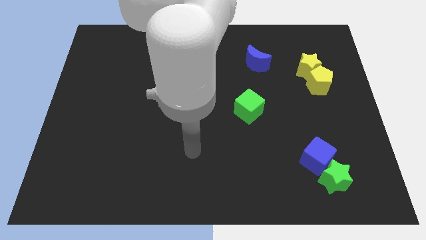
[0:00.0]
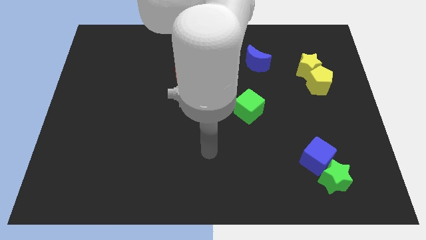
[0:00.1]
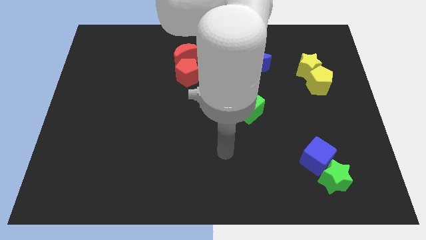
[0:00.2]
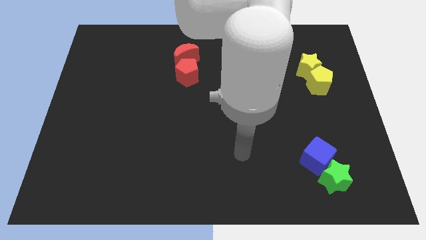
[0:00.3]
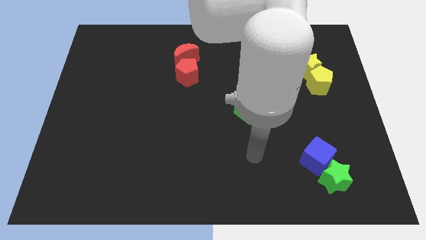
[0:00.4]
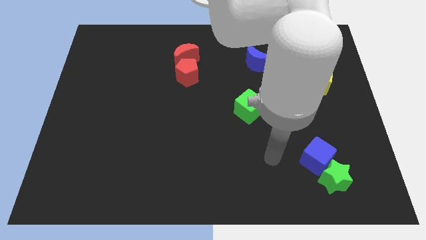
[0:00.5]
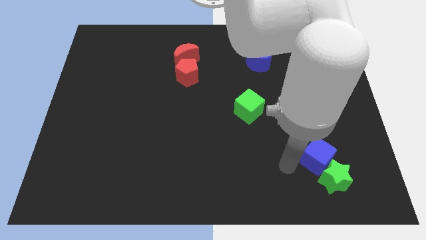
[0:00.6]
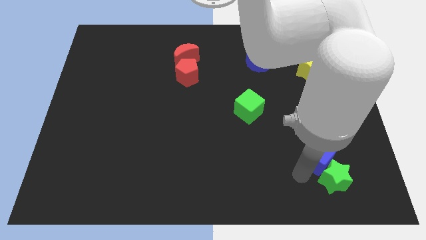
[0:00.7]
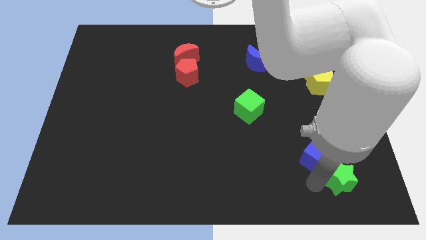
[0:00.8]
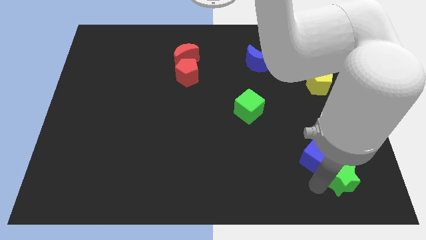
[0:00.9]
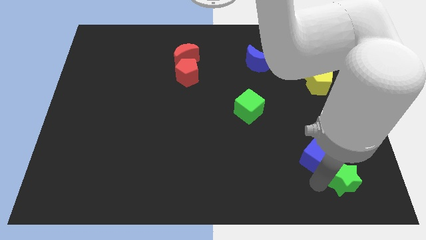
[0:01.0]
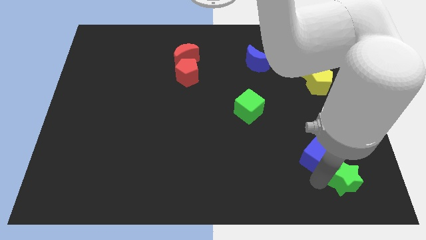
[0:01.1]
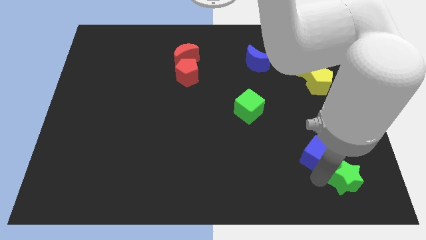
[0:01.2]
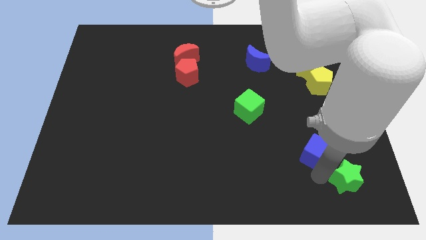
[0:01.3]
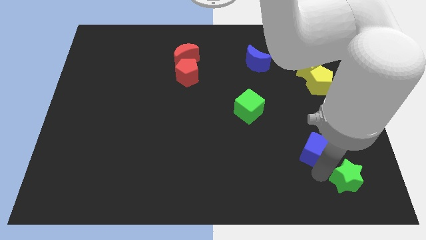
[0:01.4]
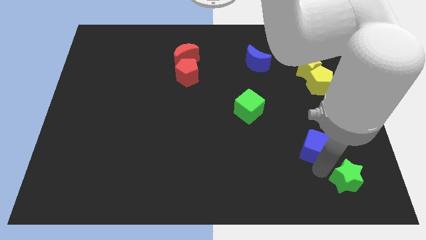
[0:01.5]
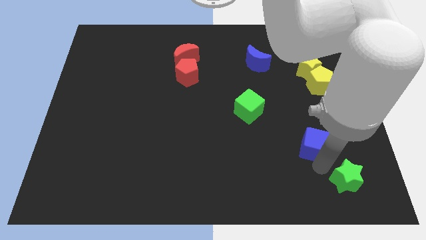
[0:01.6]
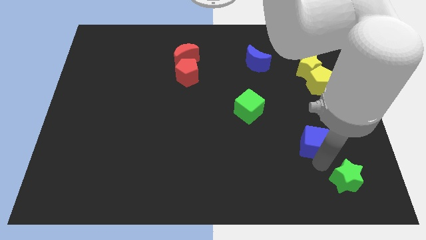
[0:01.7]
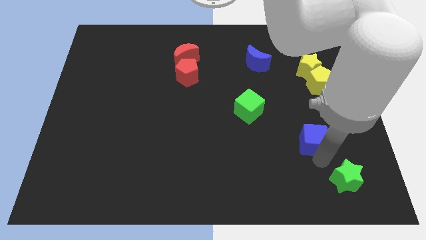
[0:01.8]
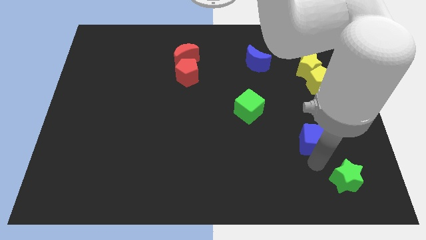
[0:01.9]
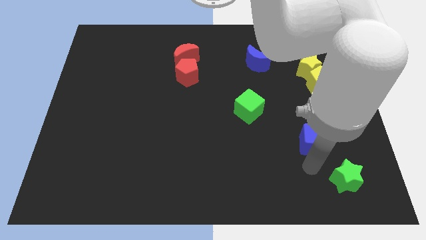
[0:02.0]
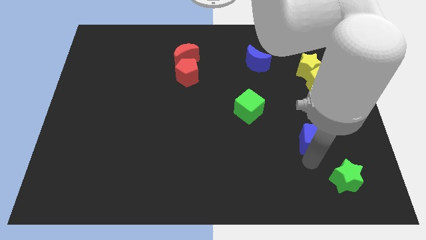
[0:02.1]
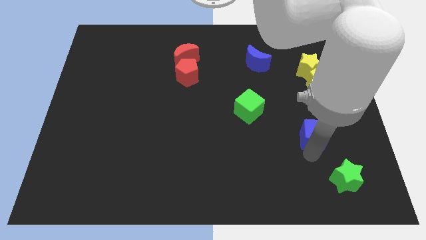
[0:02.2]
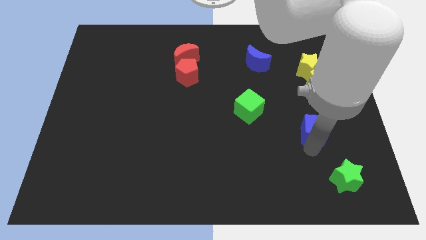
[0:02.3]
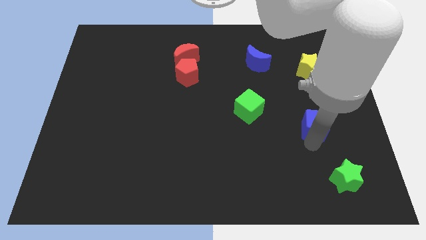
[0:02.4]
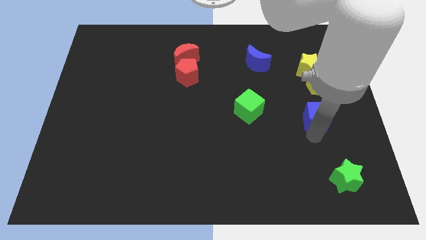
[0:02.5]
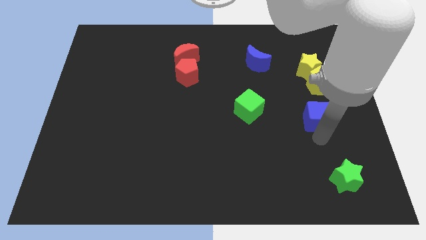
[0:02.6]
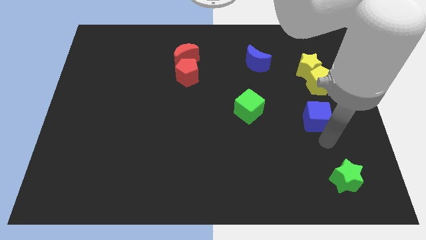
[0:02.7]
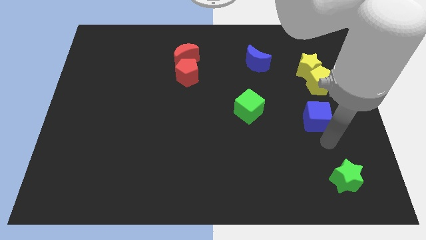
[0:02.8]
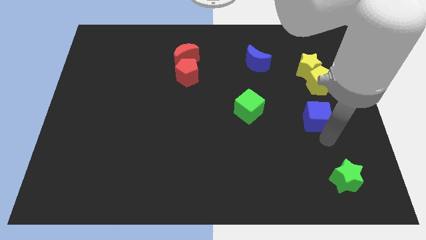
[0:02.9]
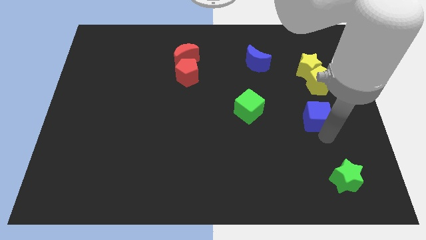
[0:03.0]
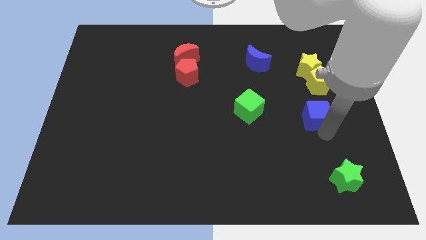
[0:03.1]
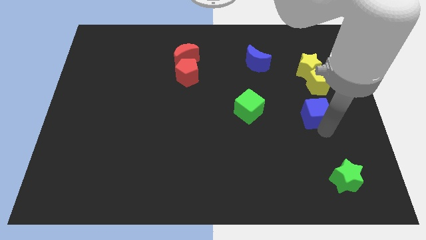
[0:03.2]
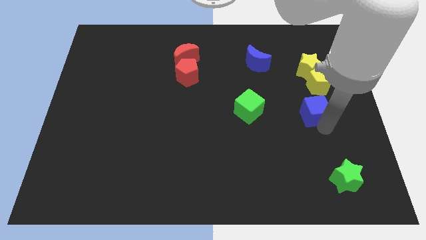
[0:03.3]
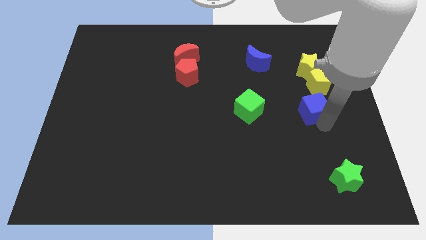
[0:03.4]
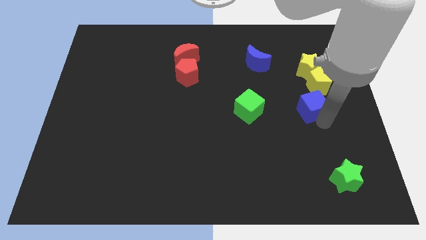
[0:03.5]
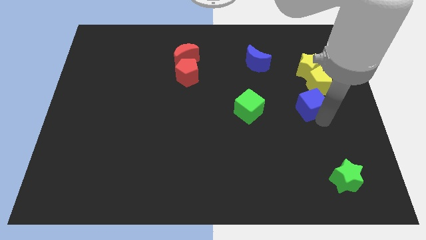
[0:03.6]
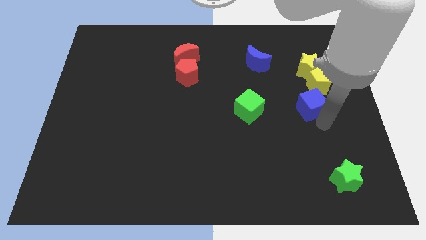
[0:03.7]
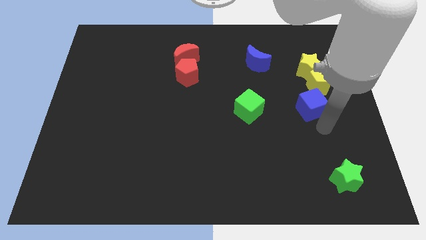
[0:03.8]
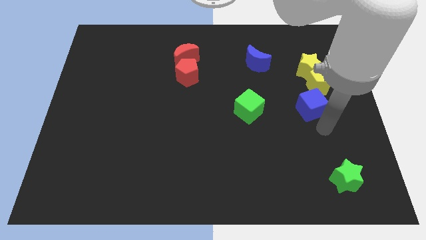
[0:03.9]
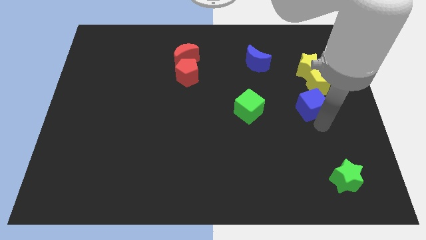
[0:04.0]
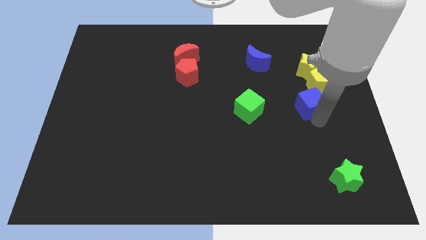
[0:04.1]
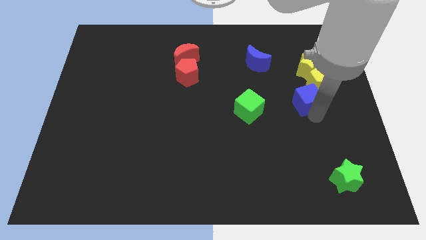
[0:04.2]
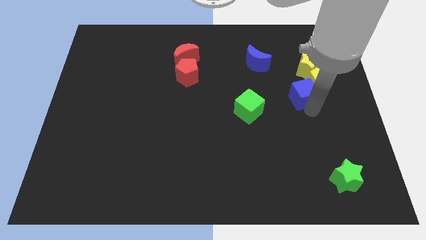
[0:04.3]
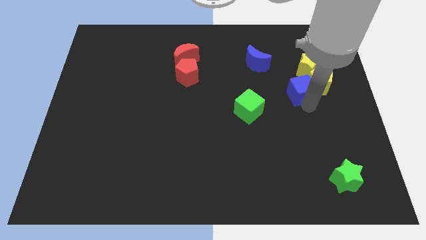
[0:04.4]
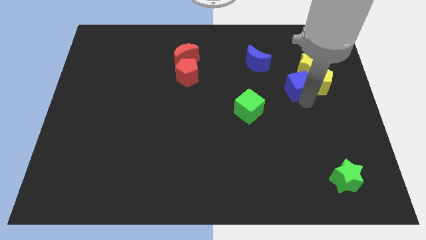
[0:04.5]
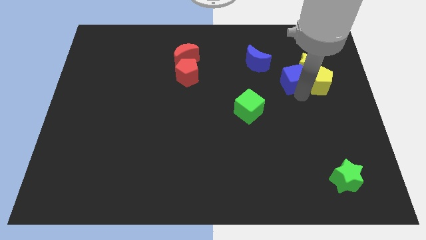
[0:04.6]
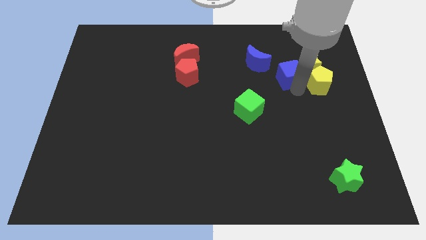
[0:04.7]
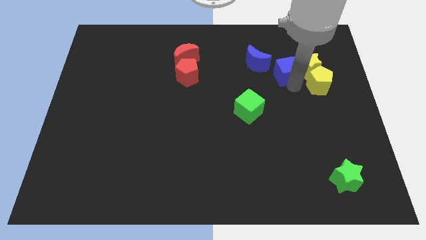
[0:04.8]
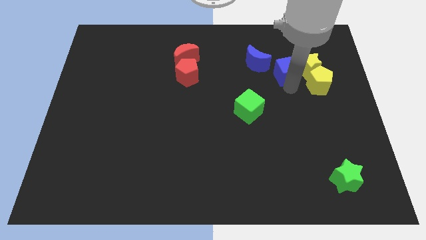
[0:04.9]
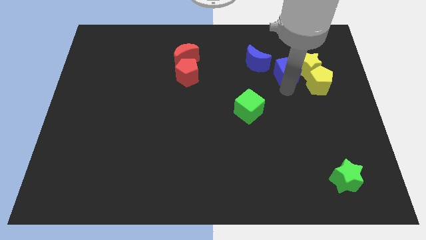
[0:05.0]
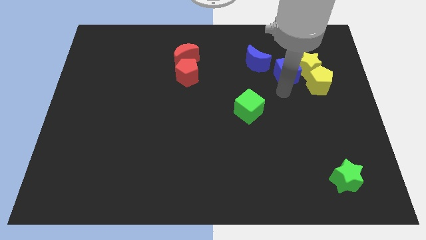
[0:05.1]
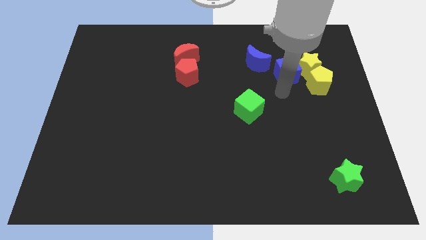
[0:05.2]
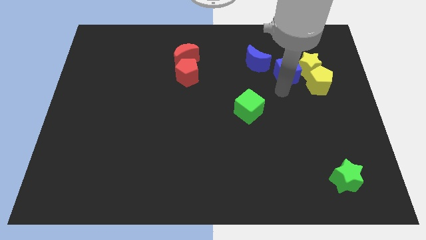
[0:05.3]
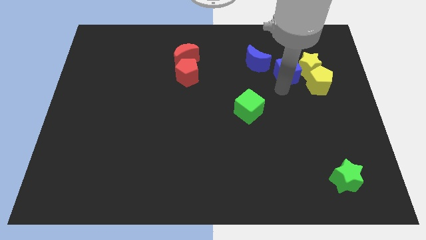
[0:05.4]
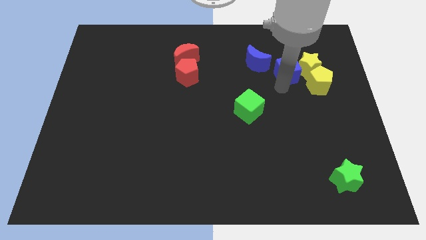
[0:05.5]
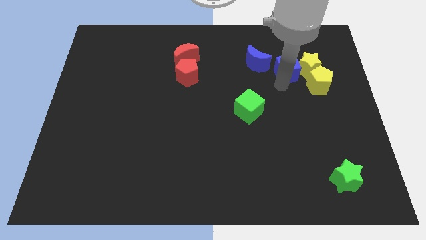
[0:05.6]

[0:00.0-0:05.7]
move the blue cube to the top left of the yellow star

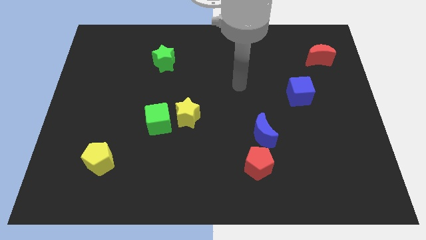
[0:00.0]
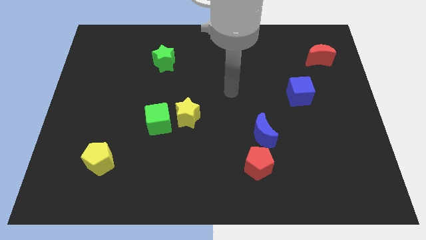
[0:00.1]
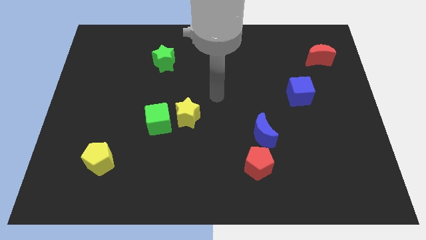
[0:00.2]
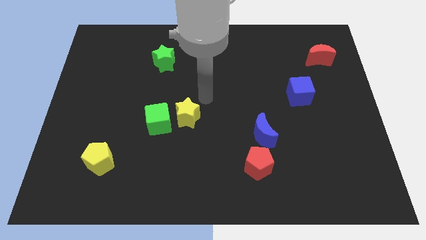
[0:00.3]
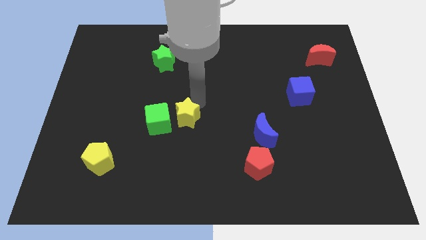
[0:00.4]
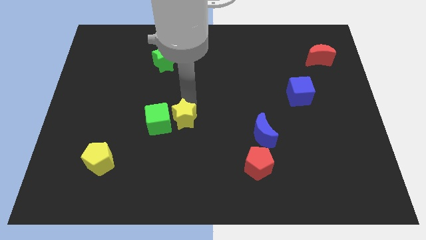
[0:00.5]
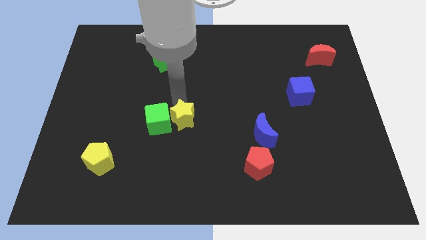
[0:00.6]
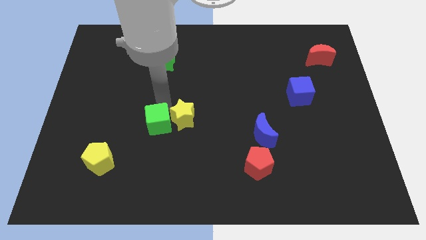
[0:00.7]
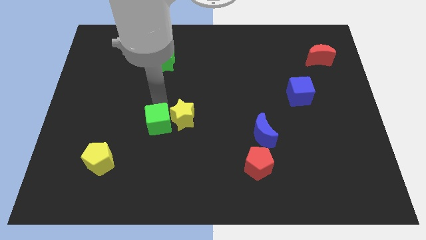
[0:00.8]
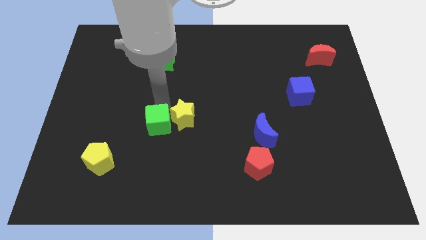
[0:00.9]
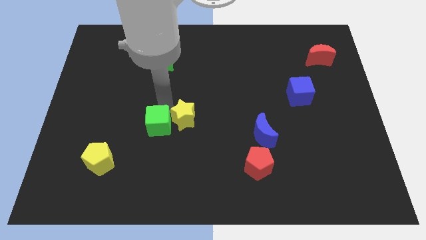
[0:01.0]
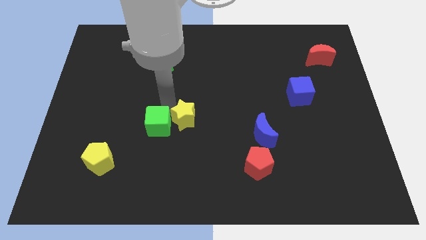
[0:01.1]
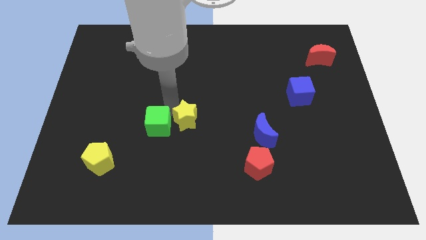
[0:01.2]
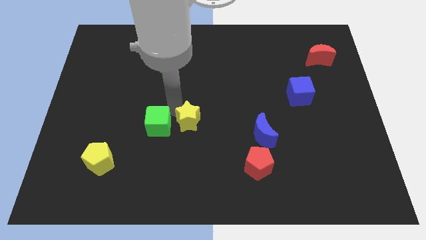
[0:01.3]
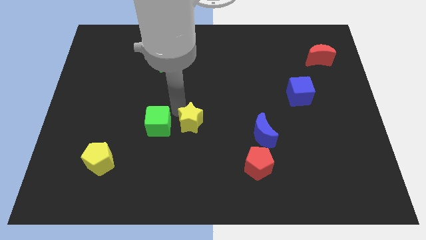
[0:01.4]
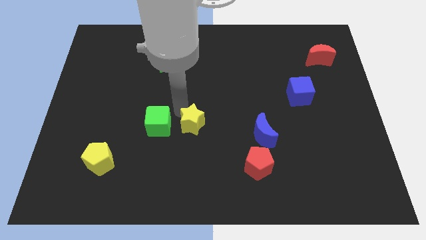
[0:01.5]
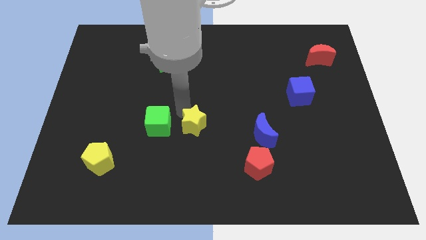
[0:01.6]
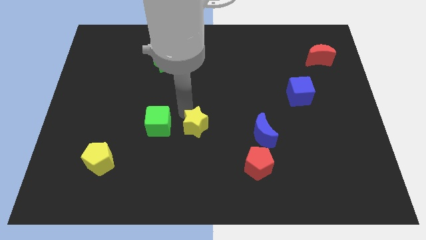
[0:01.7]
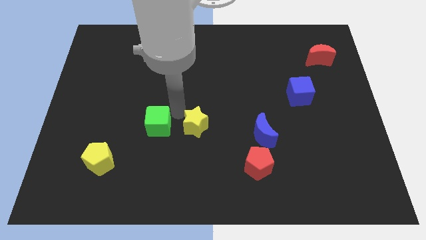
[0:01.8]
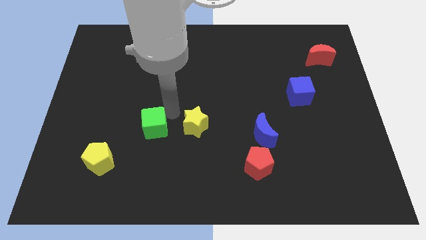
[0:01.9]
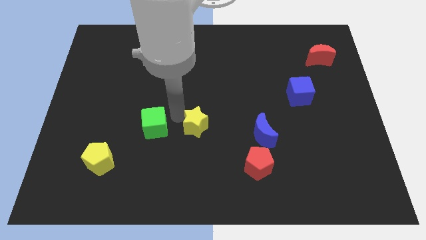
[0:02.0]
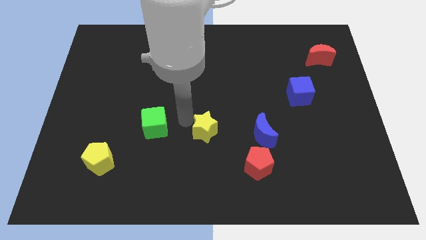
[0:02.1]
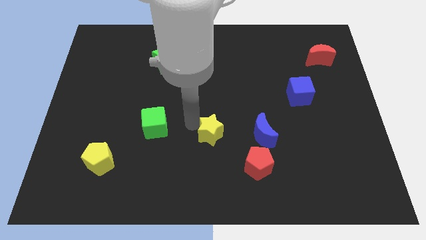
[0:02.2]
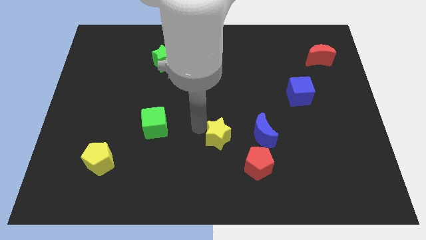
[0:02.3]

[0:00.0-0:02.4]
put the yellow star to the top left side of the red pentagon
